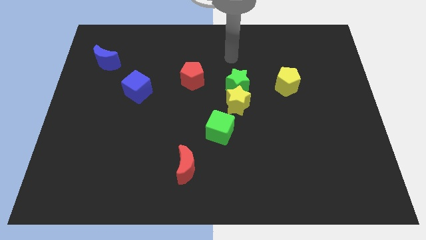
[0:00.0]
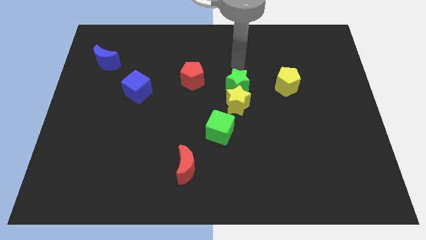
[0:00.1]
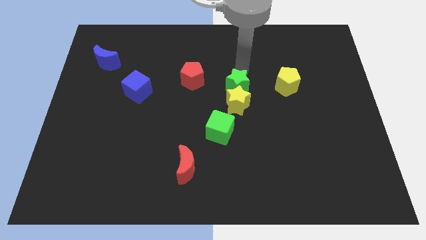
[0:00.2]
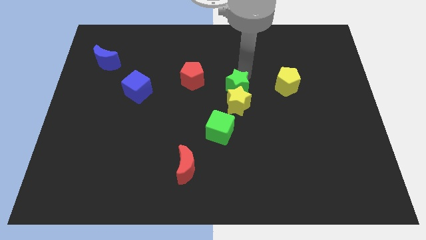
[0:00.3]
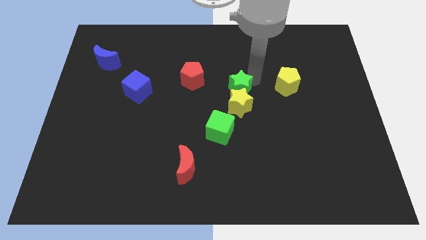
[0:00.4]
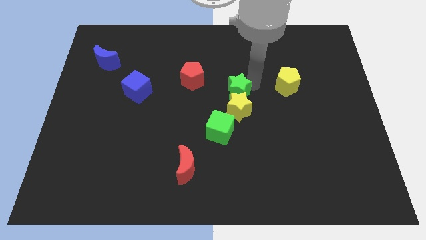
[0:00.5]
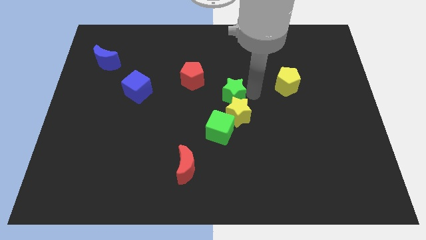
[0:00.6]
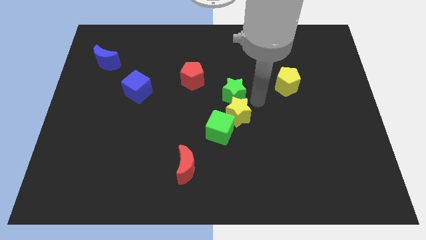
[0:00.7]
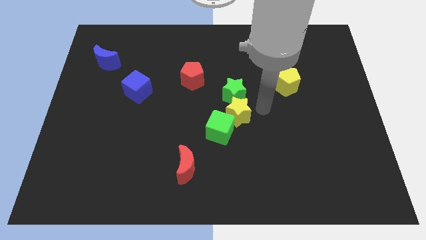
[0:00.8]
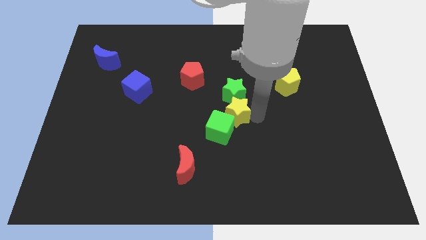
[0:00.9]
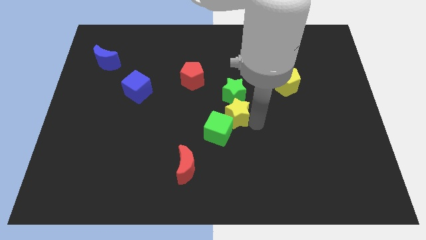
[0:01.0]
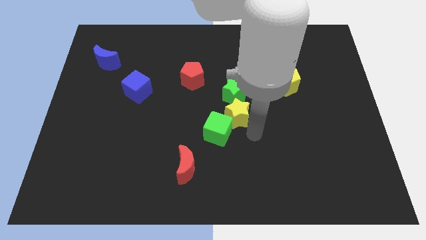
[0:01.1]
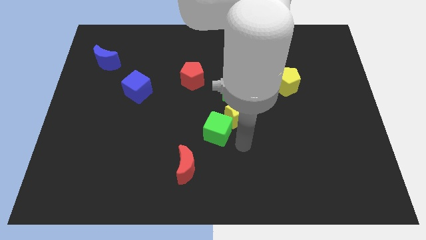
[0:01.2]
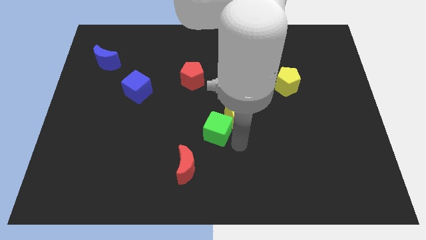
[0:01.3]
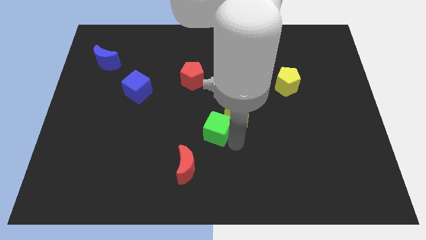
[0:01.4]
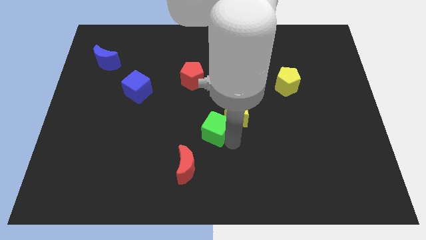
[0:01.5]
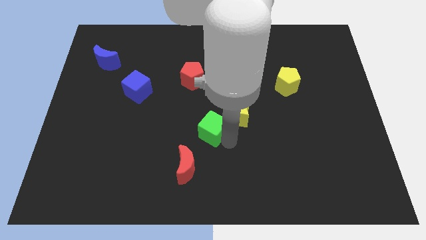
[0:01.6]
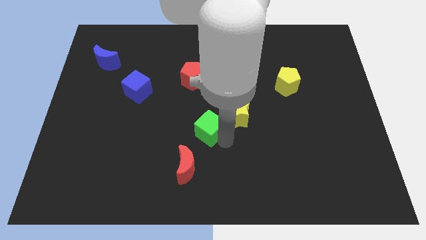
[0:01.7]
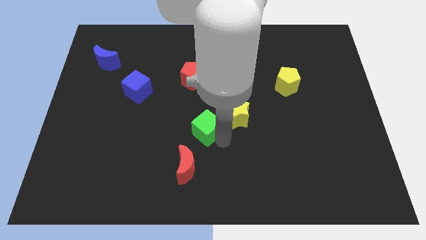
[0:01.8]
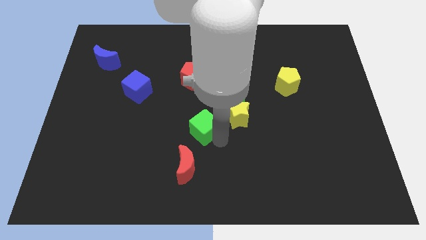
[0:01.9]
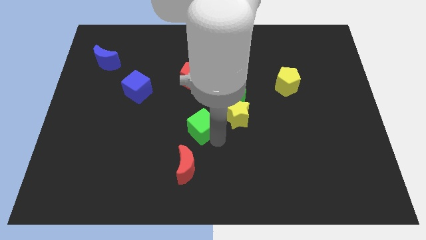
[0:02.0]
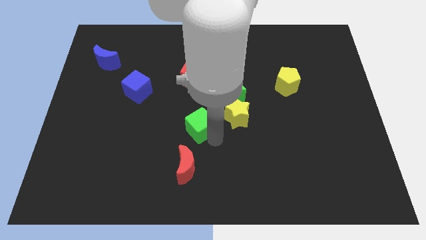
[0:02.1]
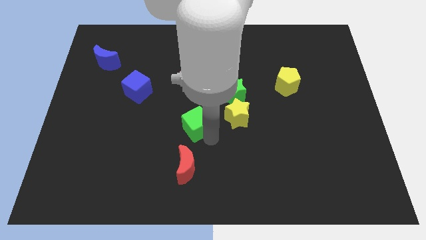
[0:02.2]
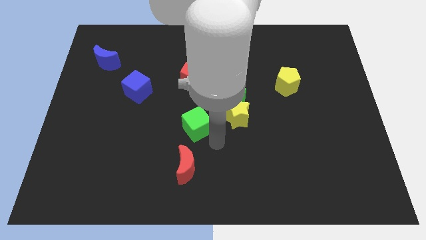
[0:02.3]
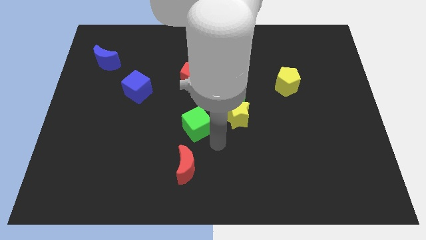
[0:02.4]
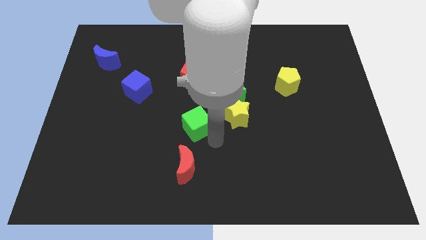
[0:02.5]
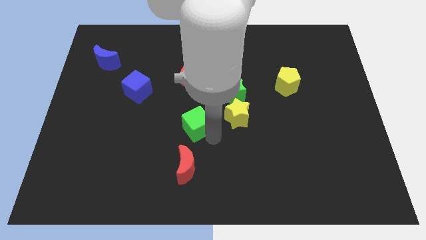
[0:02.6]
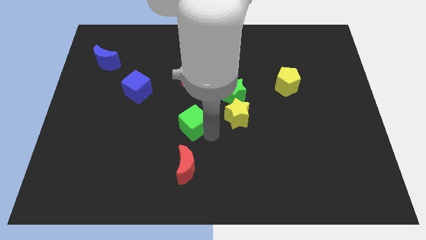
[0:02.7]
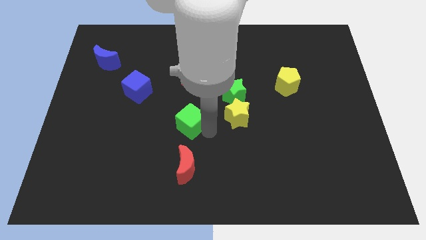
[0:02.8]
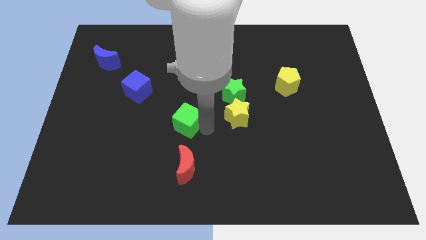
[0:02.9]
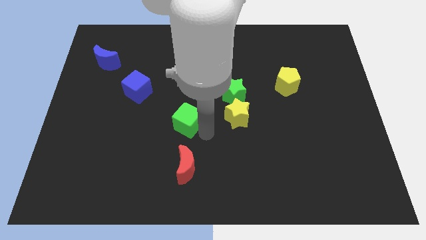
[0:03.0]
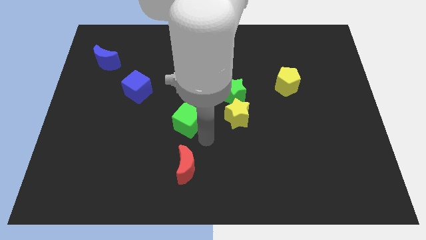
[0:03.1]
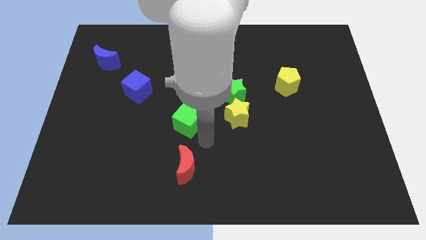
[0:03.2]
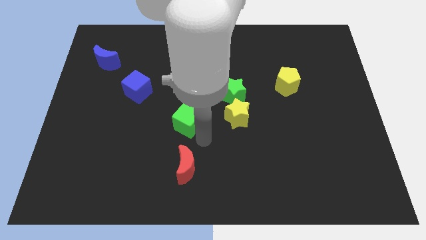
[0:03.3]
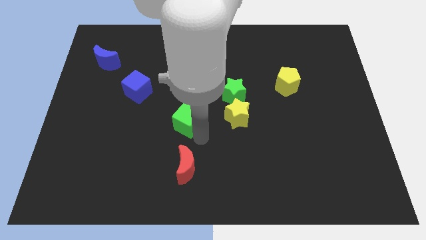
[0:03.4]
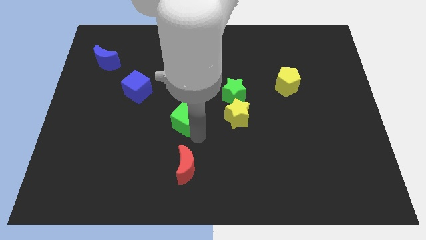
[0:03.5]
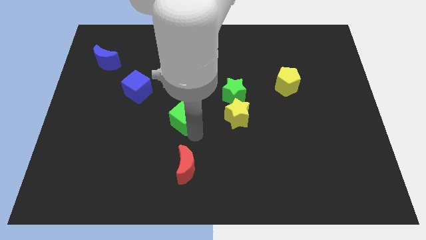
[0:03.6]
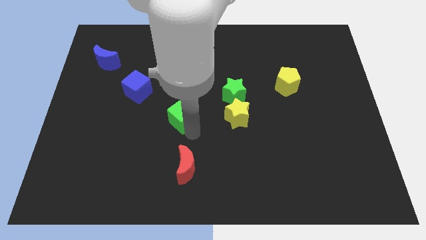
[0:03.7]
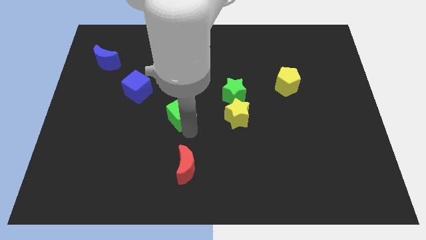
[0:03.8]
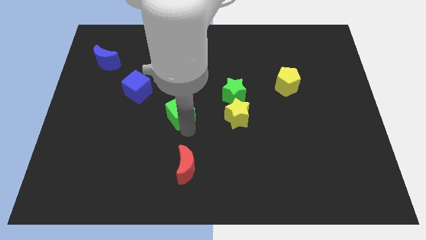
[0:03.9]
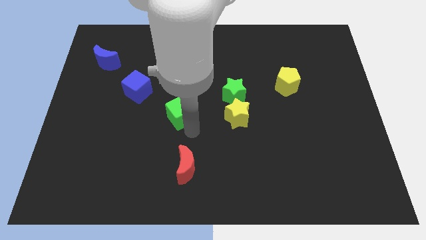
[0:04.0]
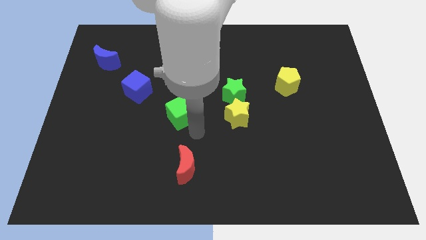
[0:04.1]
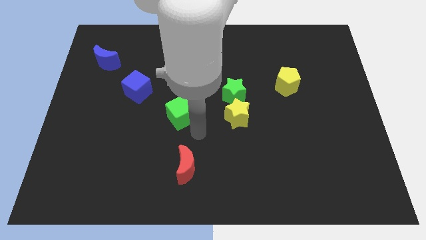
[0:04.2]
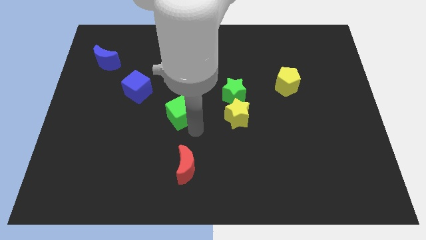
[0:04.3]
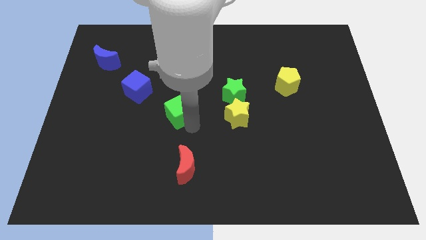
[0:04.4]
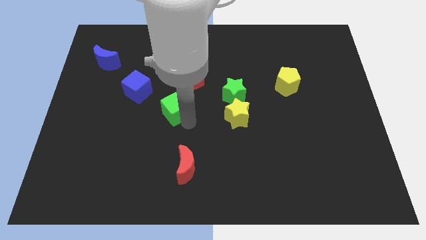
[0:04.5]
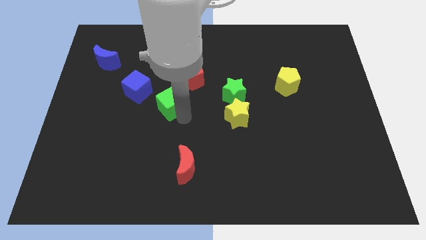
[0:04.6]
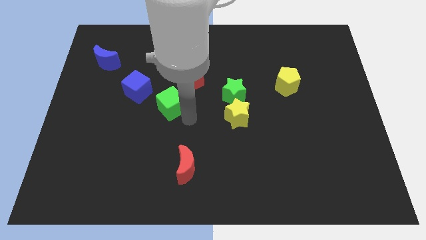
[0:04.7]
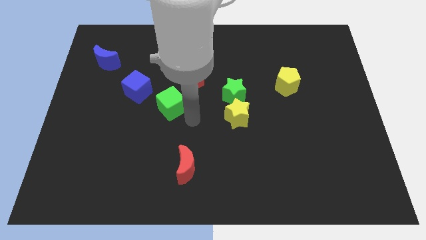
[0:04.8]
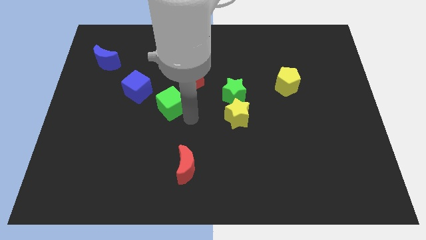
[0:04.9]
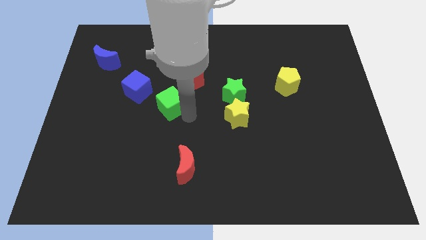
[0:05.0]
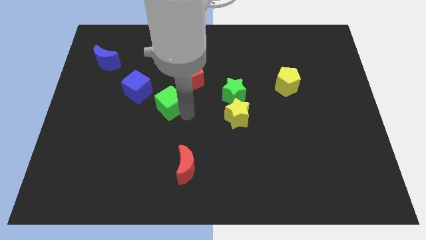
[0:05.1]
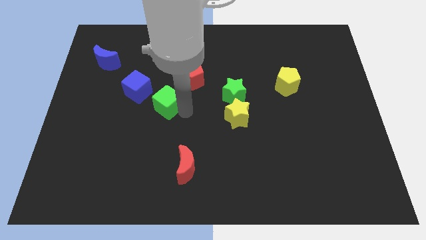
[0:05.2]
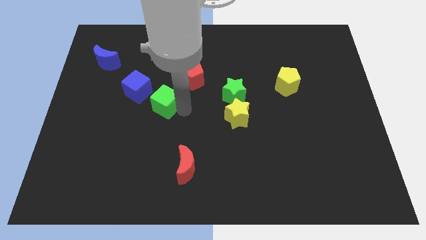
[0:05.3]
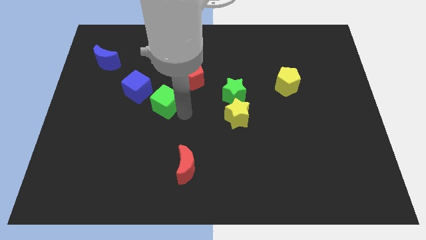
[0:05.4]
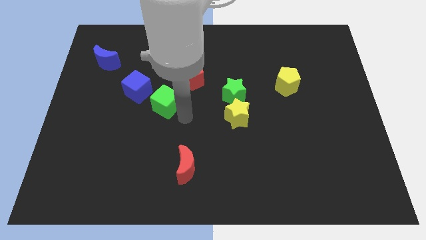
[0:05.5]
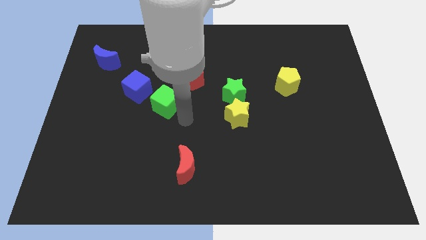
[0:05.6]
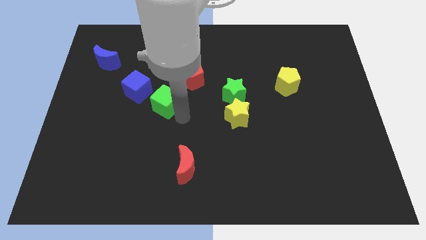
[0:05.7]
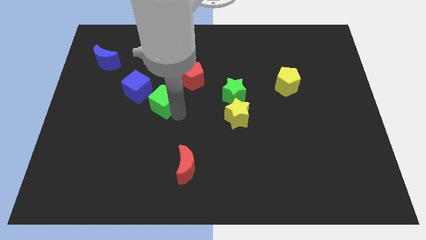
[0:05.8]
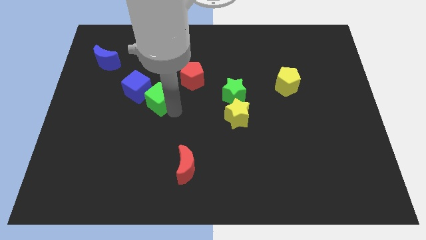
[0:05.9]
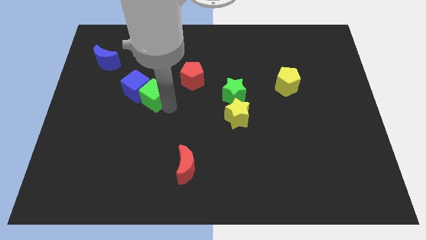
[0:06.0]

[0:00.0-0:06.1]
push the green cube next to the blue cube

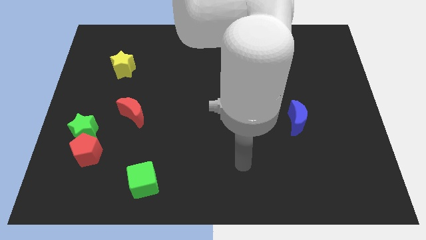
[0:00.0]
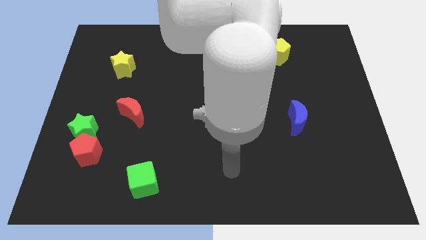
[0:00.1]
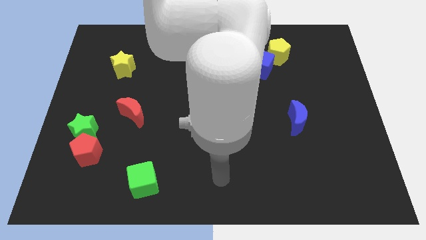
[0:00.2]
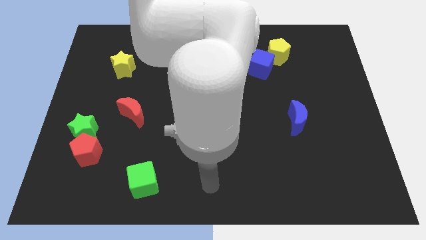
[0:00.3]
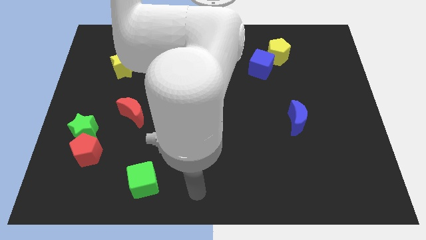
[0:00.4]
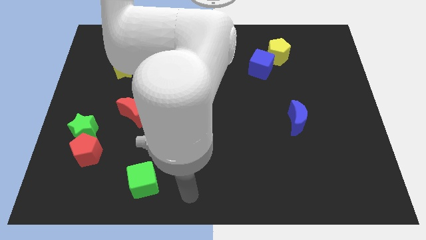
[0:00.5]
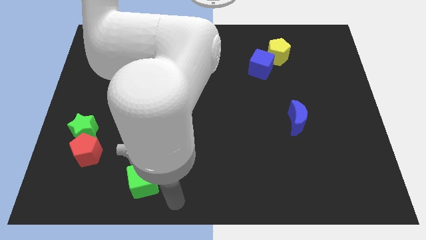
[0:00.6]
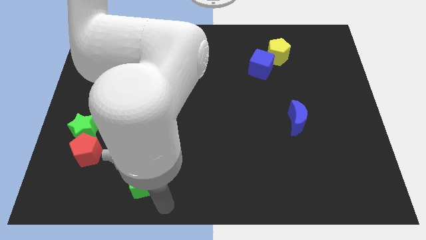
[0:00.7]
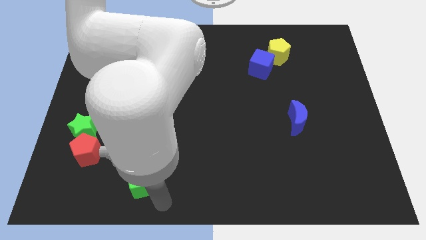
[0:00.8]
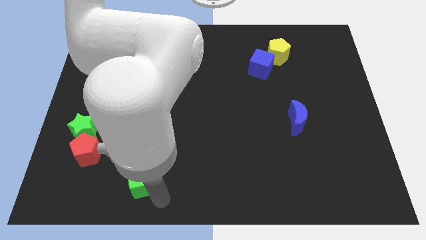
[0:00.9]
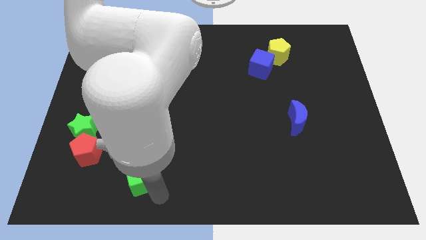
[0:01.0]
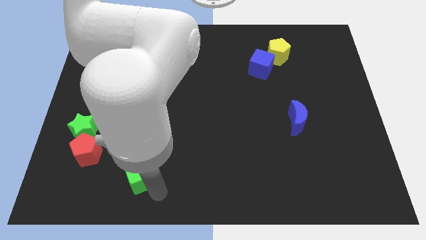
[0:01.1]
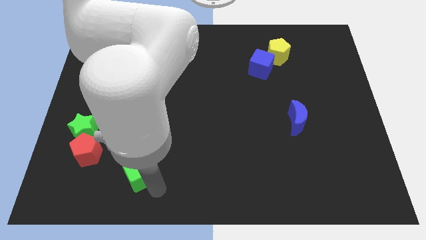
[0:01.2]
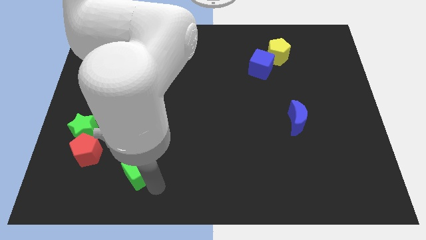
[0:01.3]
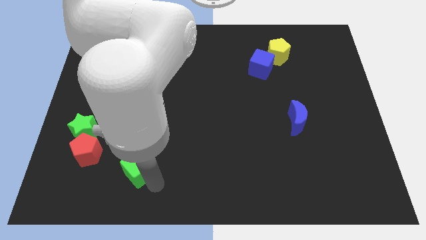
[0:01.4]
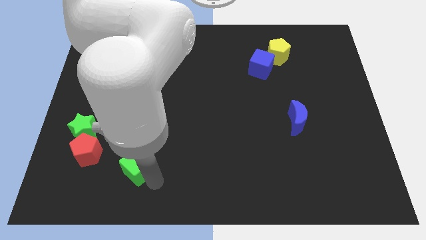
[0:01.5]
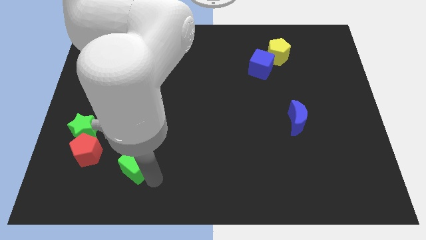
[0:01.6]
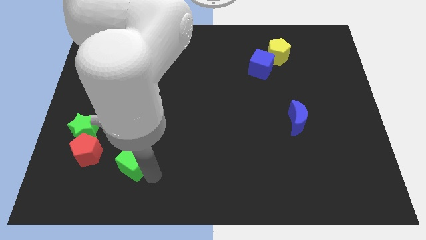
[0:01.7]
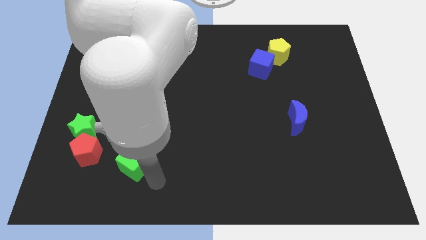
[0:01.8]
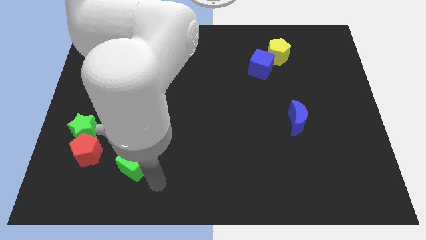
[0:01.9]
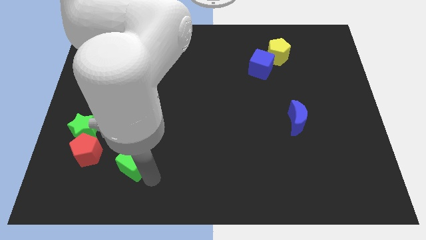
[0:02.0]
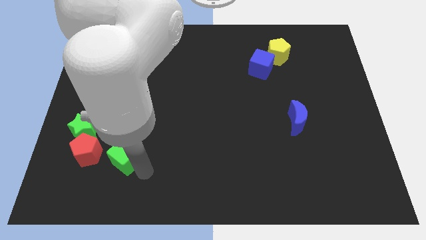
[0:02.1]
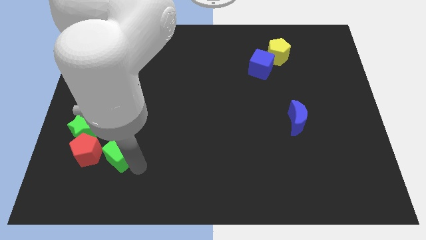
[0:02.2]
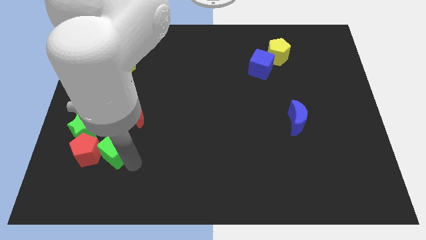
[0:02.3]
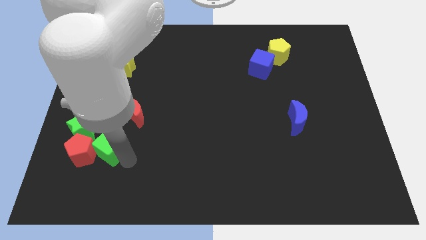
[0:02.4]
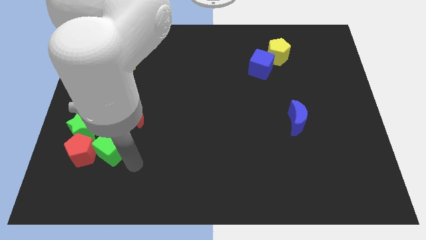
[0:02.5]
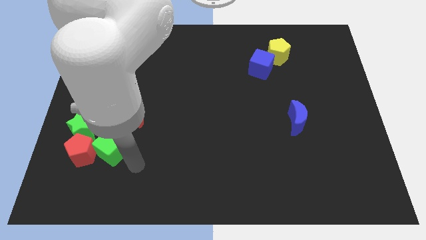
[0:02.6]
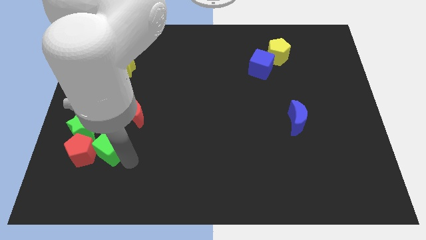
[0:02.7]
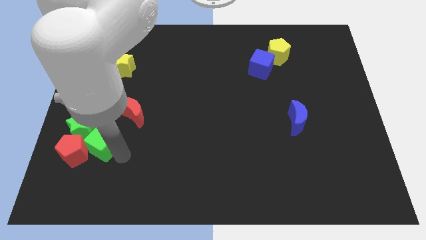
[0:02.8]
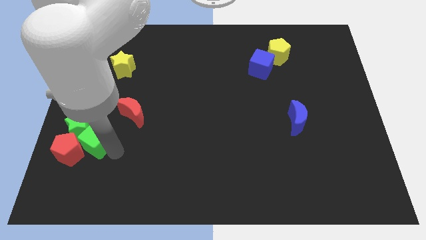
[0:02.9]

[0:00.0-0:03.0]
push the green cube next to the green star
